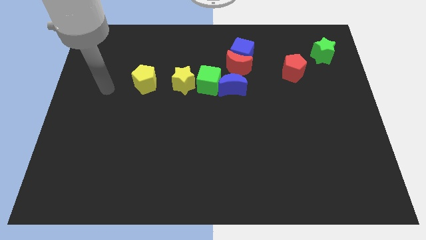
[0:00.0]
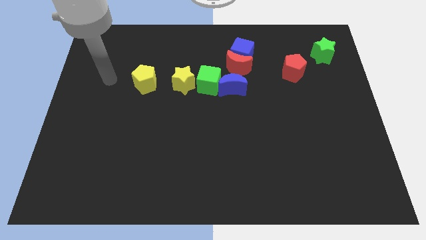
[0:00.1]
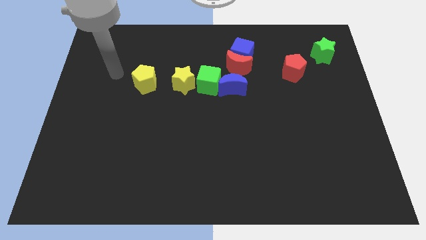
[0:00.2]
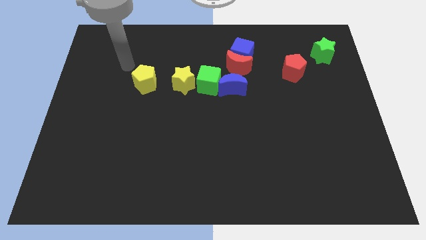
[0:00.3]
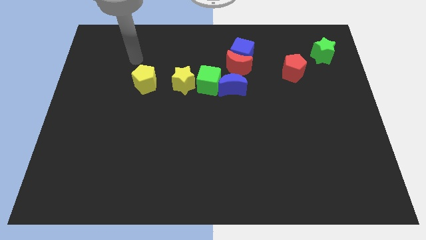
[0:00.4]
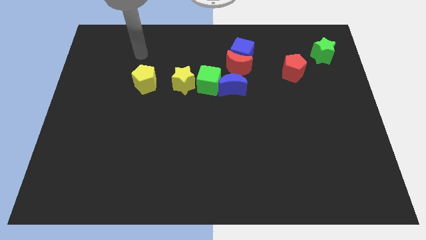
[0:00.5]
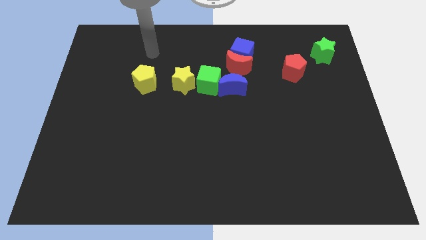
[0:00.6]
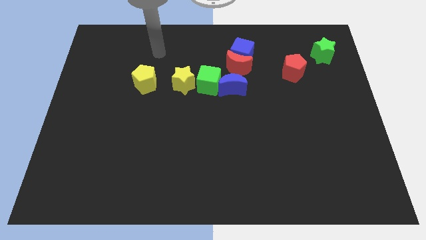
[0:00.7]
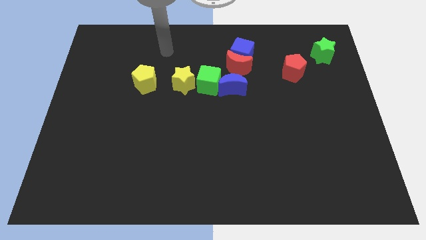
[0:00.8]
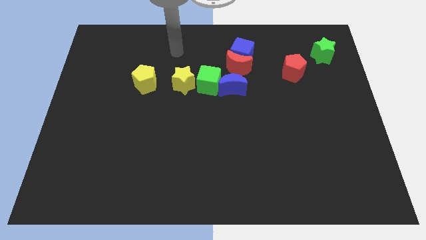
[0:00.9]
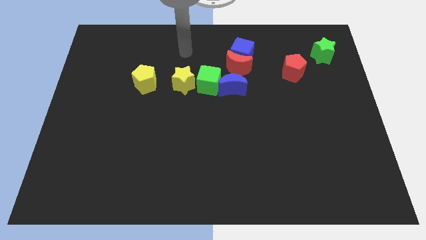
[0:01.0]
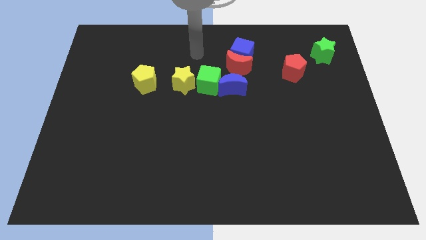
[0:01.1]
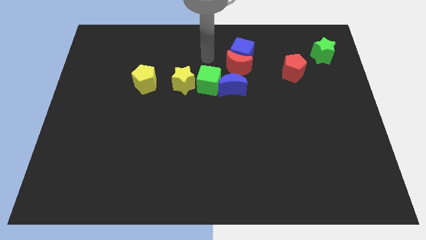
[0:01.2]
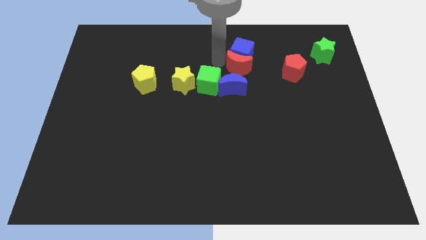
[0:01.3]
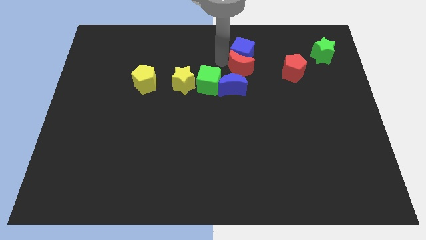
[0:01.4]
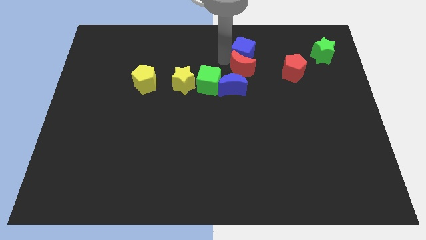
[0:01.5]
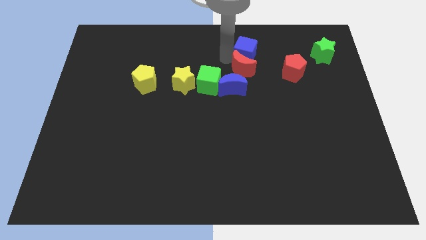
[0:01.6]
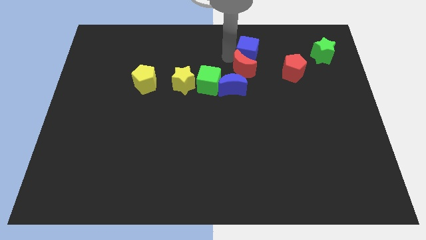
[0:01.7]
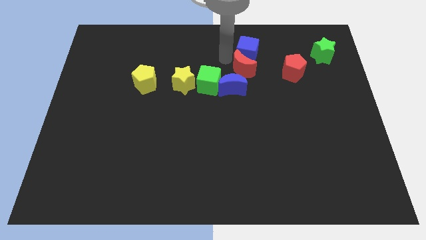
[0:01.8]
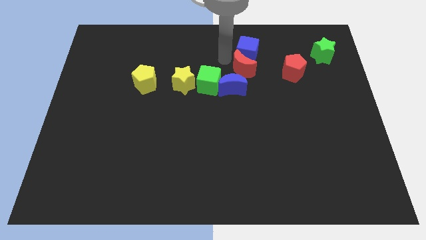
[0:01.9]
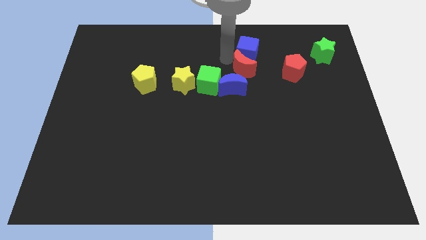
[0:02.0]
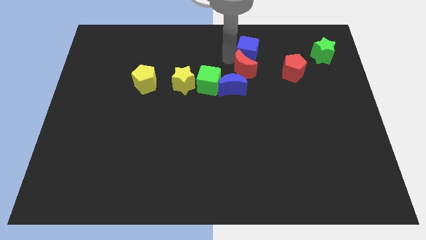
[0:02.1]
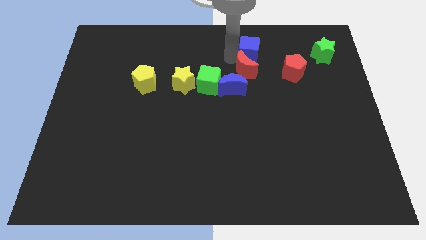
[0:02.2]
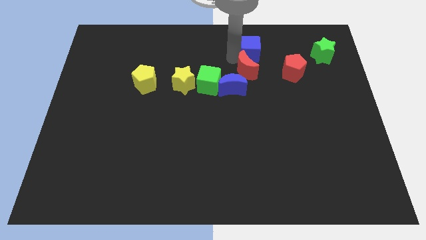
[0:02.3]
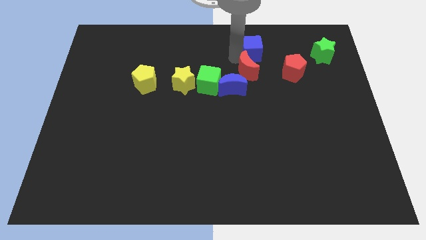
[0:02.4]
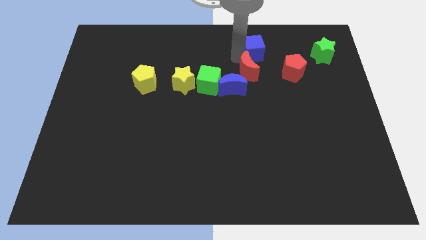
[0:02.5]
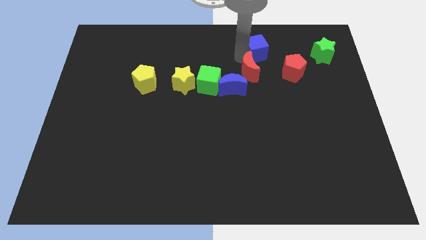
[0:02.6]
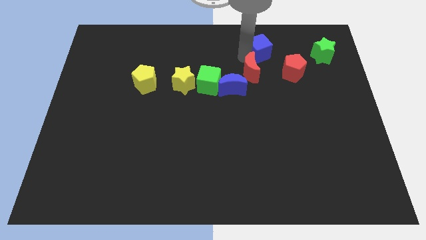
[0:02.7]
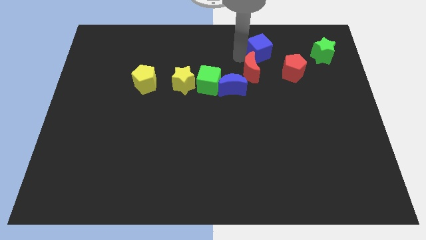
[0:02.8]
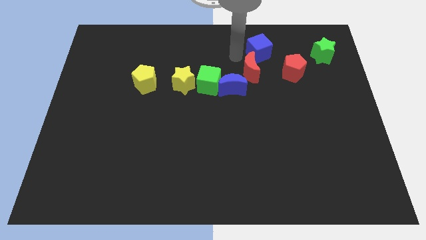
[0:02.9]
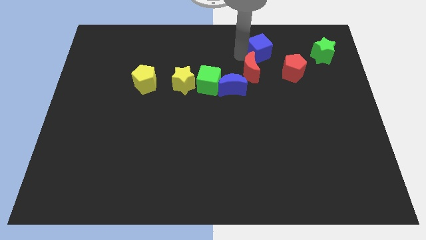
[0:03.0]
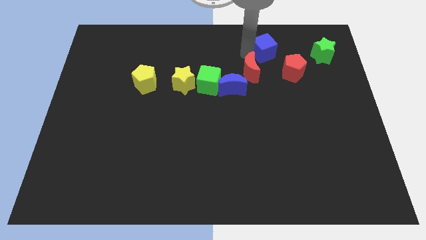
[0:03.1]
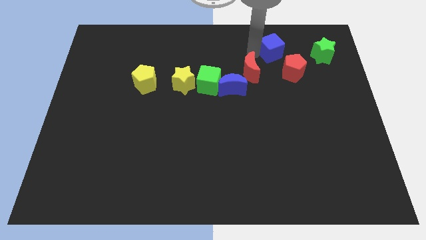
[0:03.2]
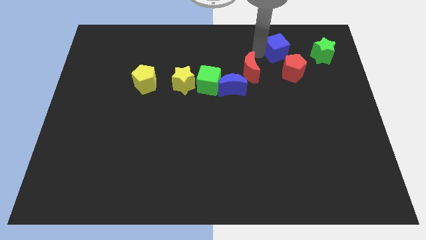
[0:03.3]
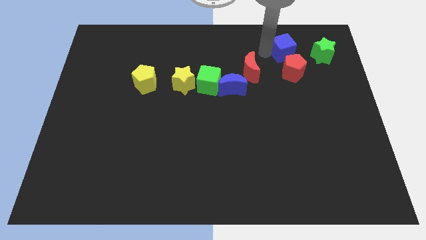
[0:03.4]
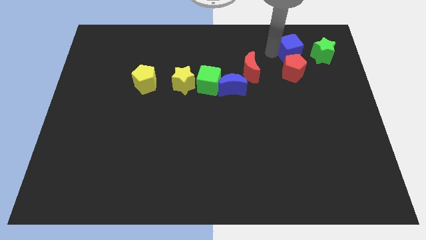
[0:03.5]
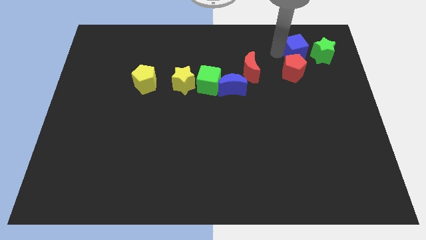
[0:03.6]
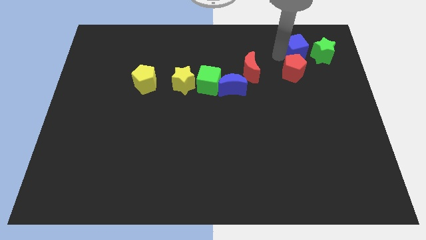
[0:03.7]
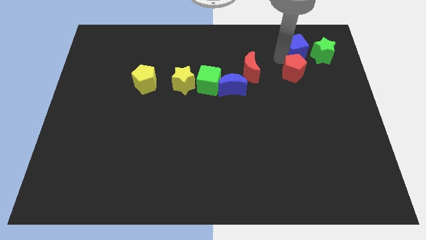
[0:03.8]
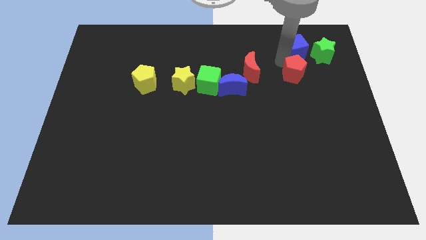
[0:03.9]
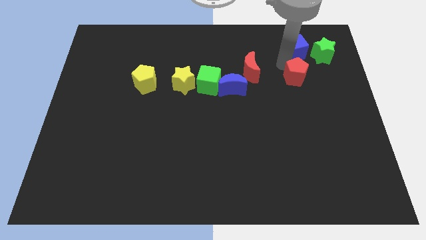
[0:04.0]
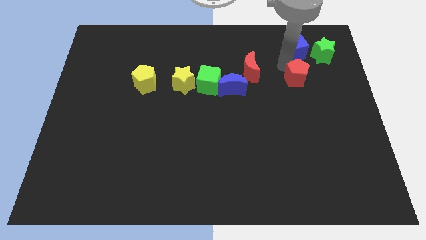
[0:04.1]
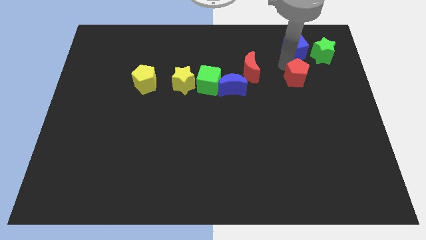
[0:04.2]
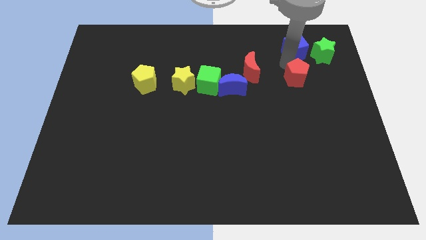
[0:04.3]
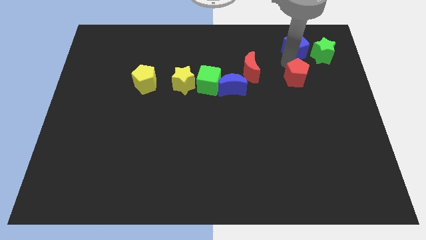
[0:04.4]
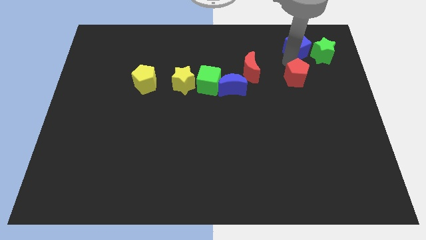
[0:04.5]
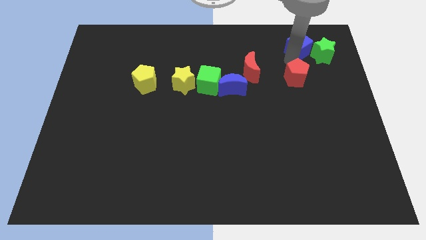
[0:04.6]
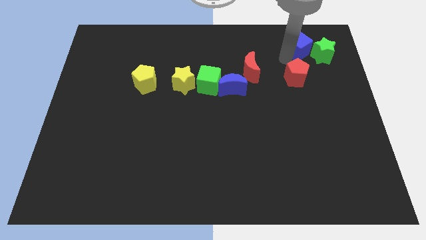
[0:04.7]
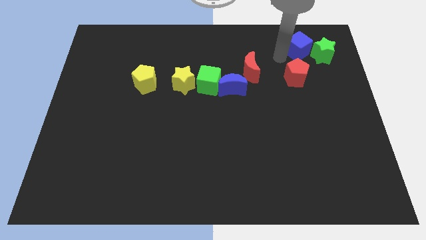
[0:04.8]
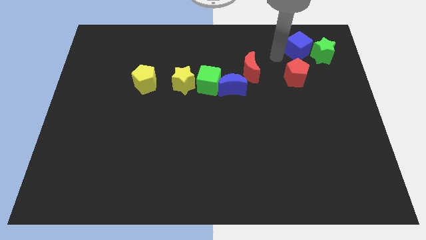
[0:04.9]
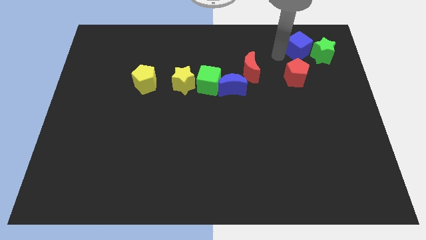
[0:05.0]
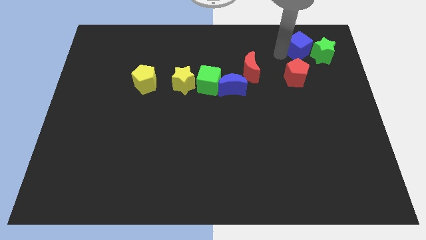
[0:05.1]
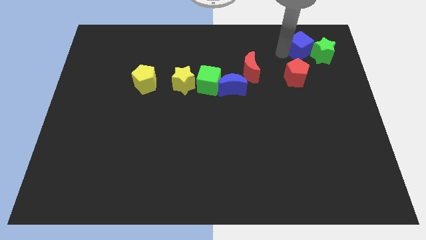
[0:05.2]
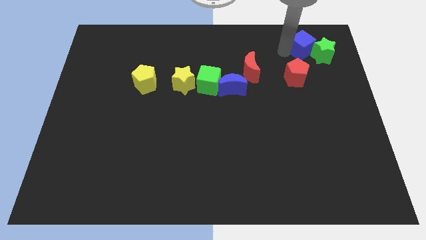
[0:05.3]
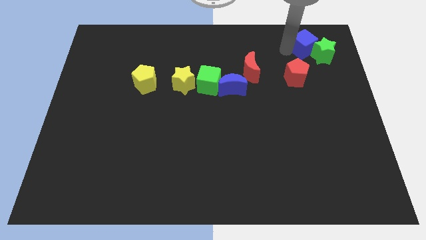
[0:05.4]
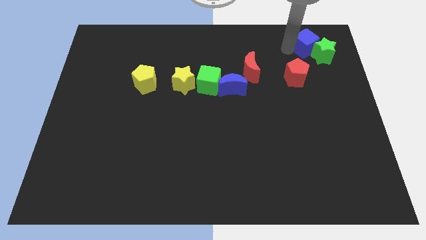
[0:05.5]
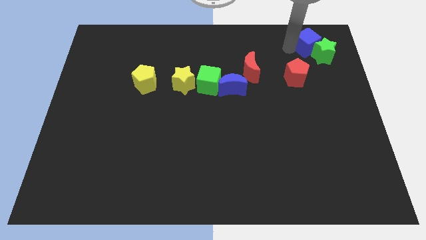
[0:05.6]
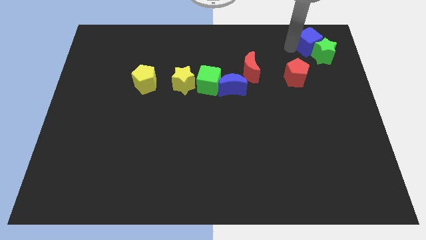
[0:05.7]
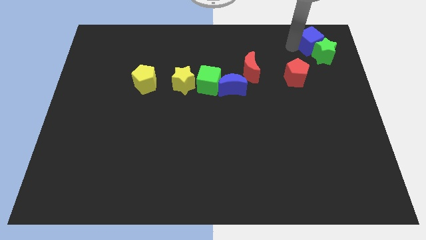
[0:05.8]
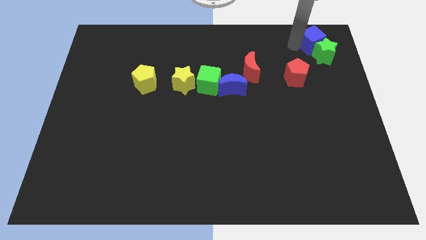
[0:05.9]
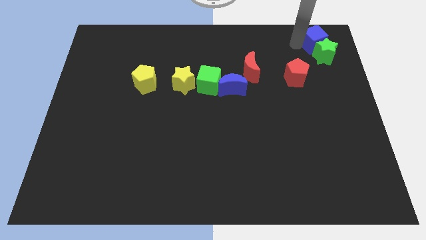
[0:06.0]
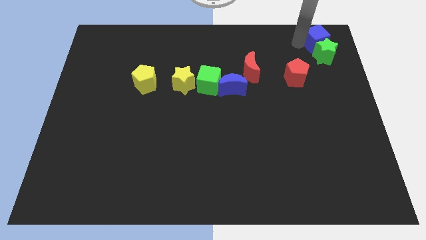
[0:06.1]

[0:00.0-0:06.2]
slide the blue cube to the top right corner

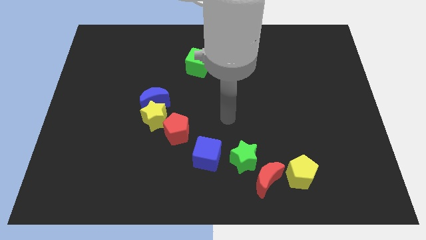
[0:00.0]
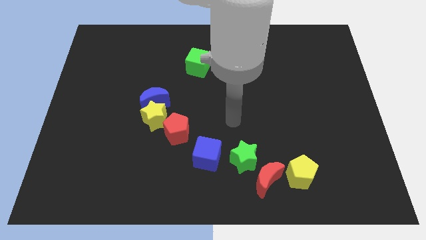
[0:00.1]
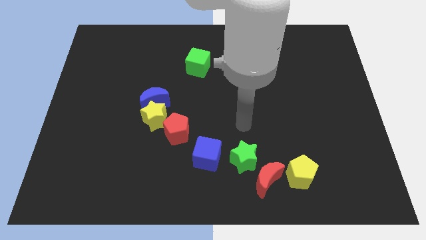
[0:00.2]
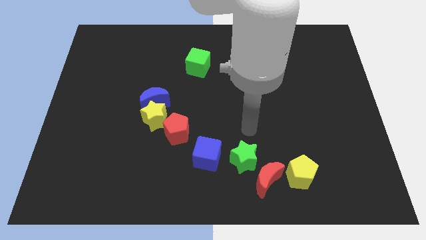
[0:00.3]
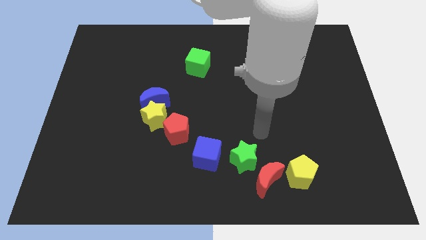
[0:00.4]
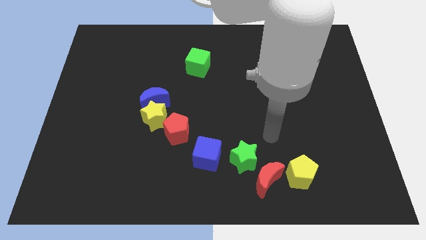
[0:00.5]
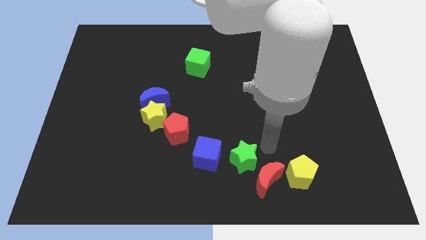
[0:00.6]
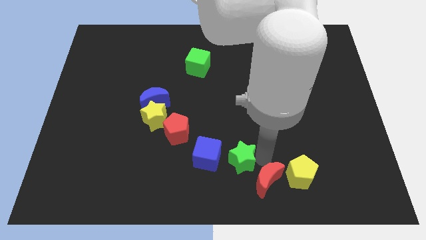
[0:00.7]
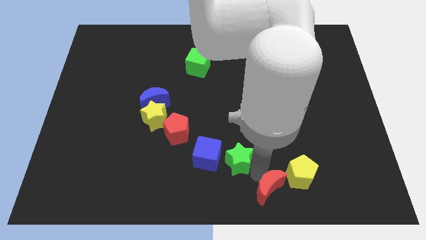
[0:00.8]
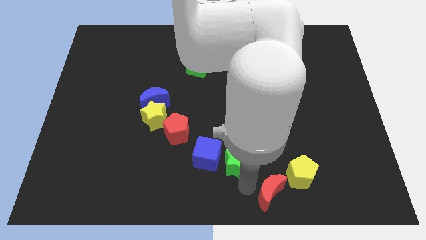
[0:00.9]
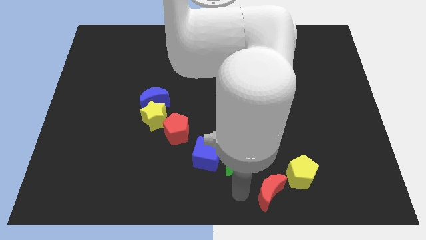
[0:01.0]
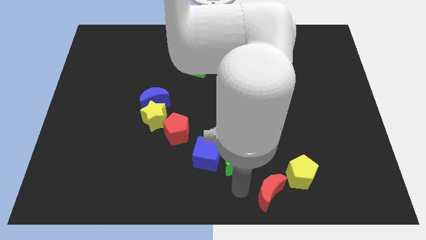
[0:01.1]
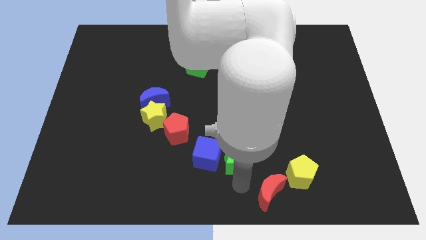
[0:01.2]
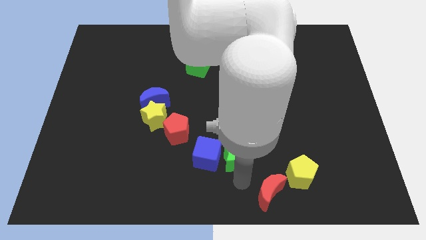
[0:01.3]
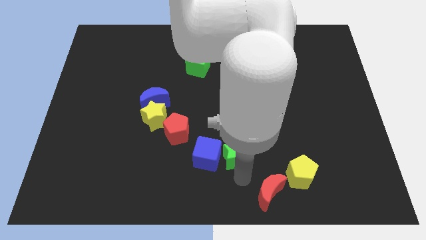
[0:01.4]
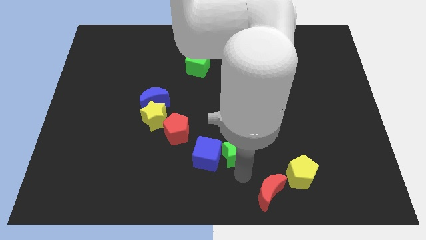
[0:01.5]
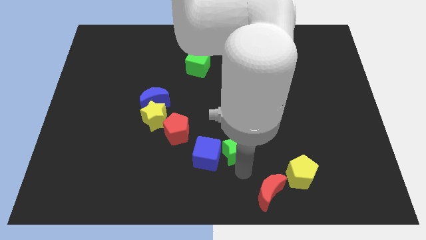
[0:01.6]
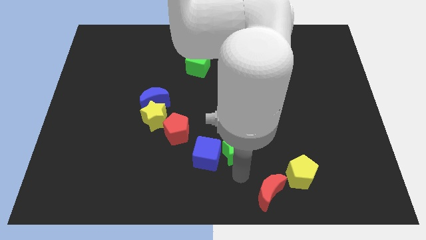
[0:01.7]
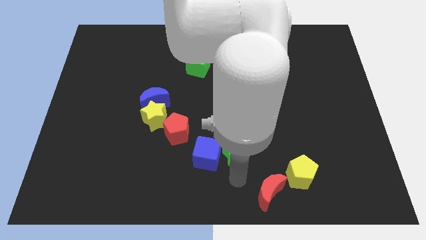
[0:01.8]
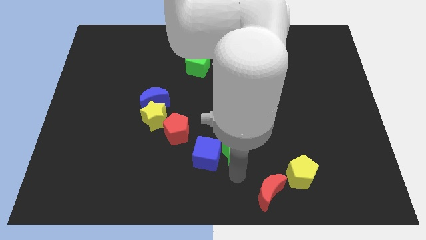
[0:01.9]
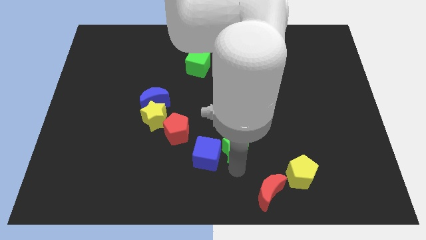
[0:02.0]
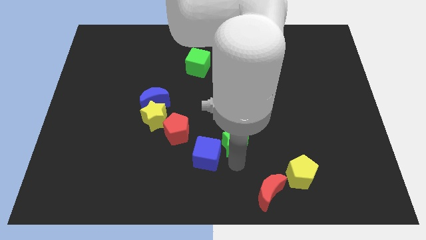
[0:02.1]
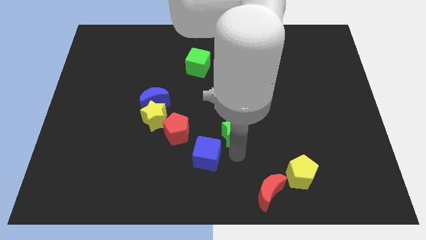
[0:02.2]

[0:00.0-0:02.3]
move the green star to the middle of the board
